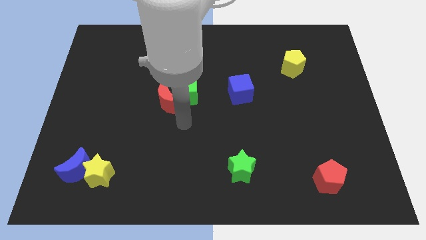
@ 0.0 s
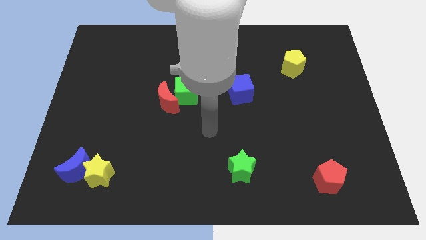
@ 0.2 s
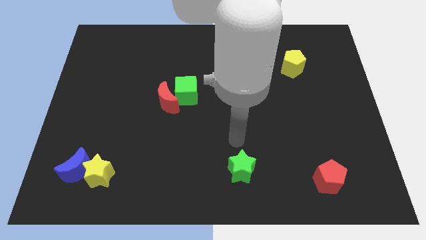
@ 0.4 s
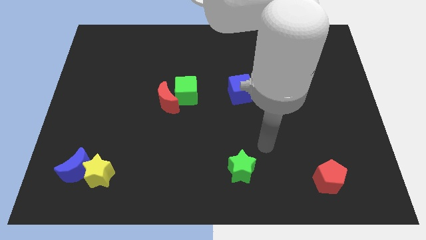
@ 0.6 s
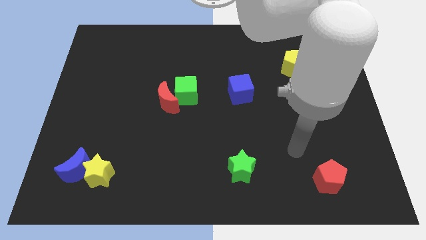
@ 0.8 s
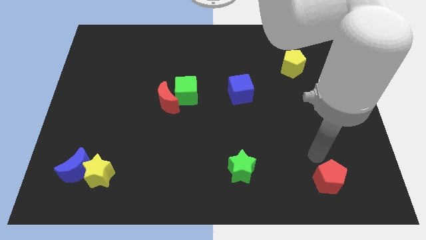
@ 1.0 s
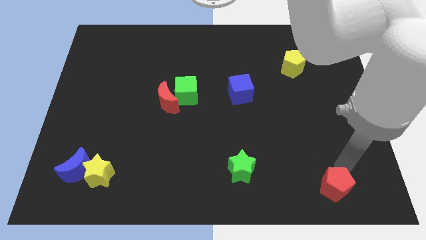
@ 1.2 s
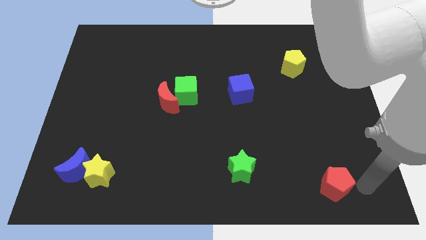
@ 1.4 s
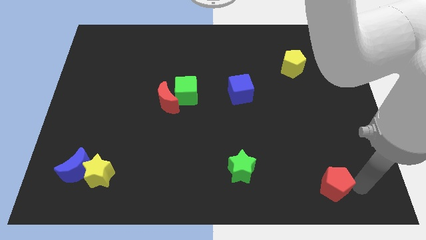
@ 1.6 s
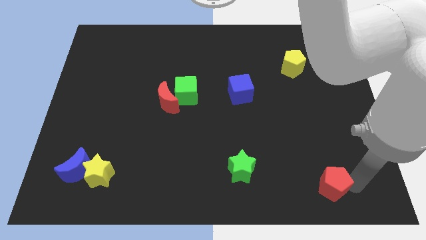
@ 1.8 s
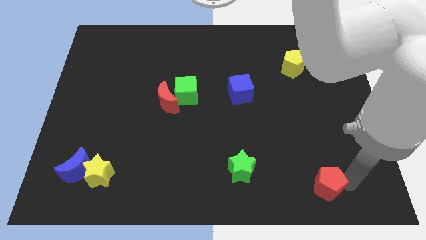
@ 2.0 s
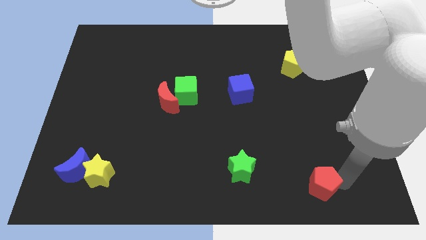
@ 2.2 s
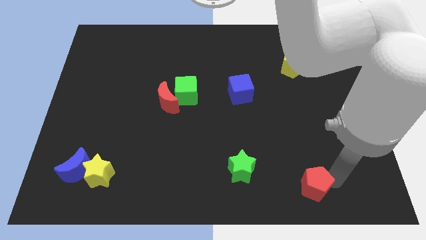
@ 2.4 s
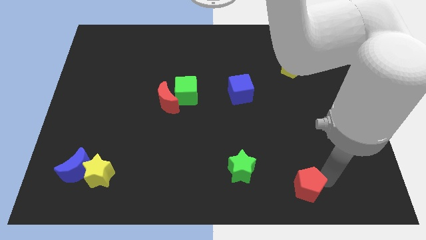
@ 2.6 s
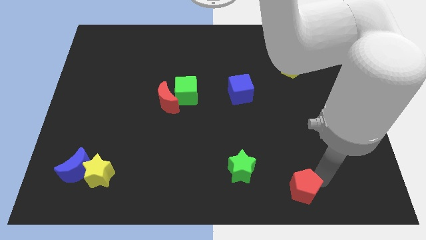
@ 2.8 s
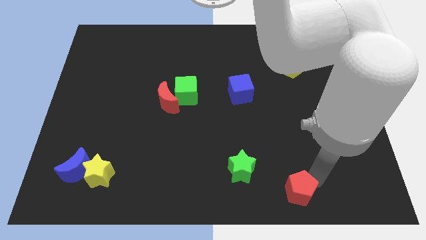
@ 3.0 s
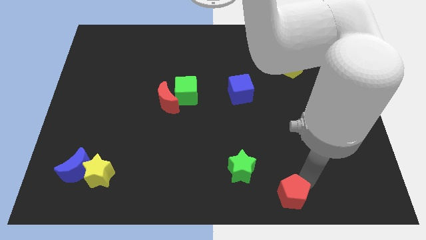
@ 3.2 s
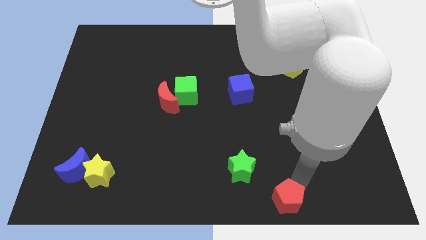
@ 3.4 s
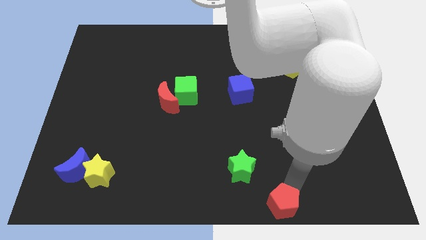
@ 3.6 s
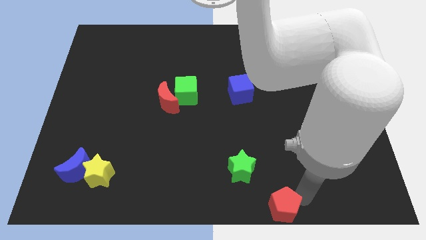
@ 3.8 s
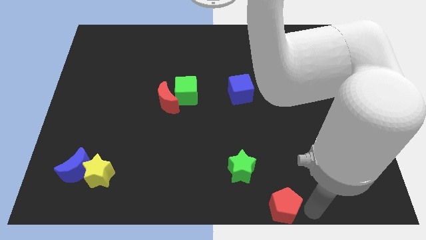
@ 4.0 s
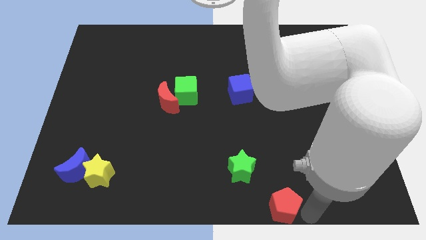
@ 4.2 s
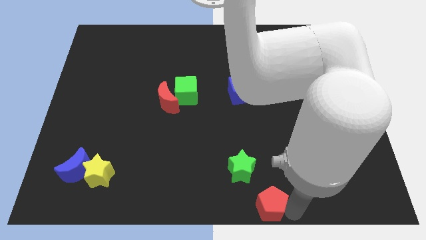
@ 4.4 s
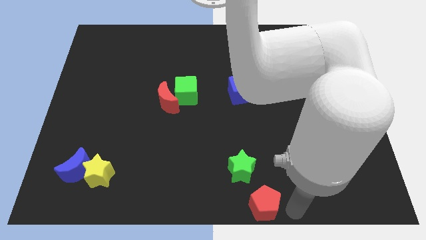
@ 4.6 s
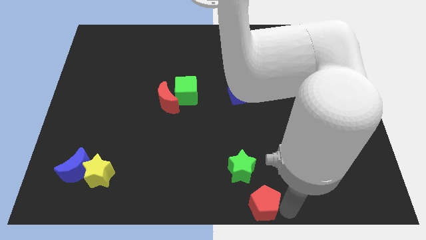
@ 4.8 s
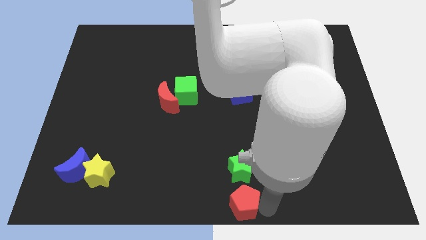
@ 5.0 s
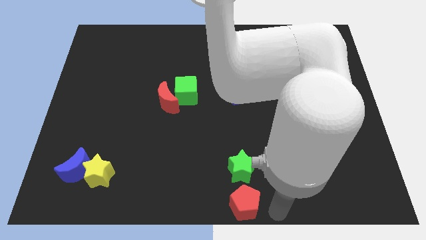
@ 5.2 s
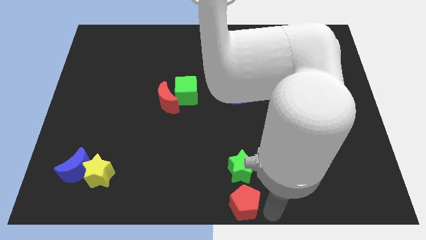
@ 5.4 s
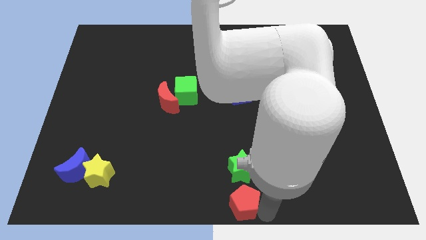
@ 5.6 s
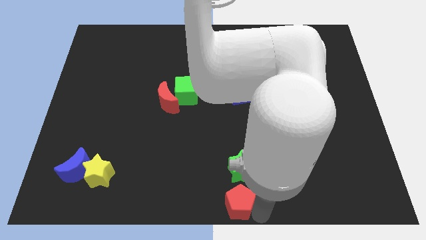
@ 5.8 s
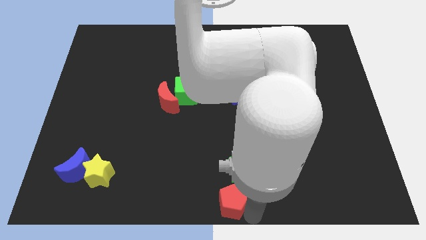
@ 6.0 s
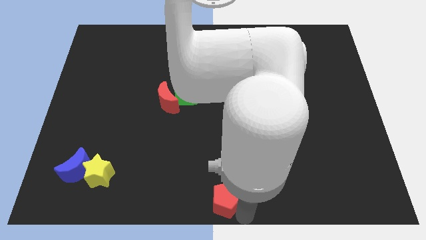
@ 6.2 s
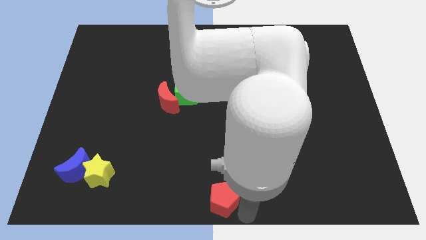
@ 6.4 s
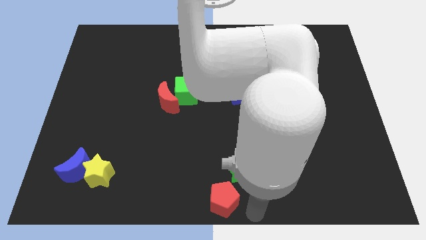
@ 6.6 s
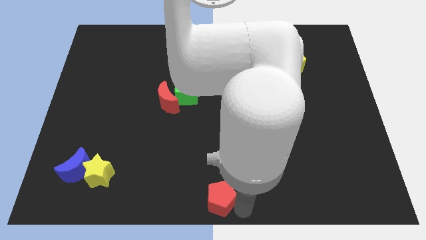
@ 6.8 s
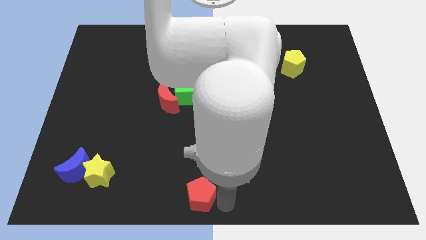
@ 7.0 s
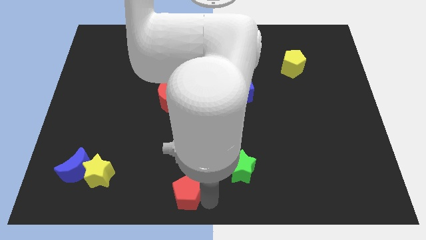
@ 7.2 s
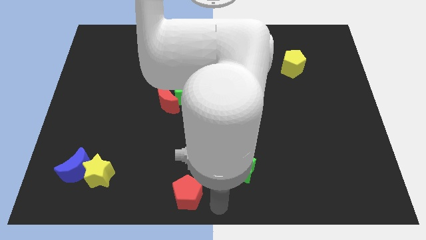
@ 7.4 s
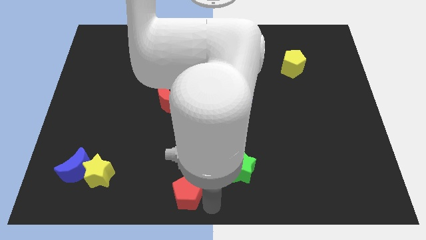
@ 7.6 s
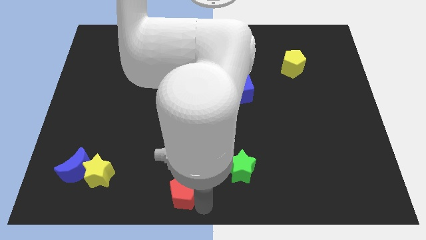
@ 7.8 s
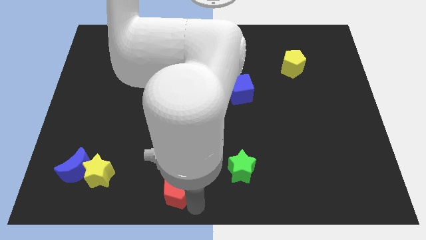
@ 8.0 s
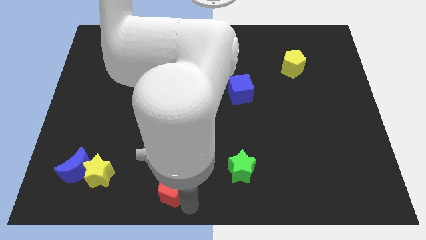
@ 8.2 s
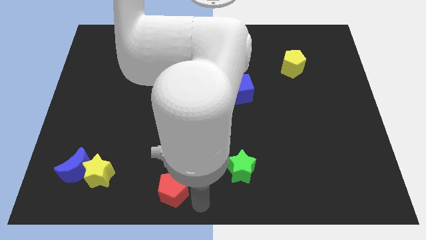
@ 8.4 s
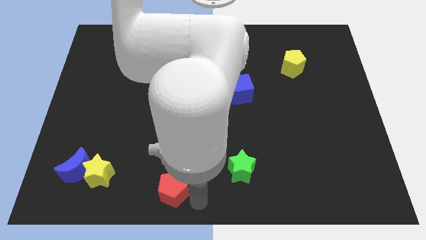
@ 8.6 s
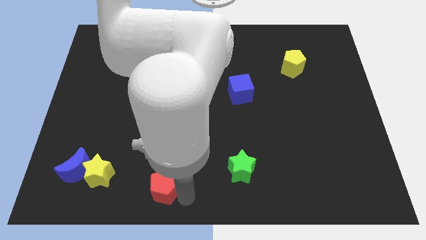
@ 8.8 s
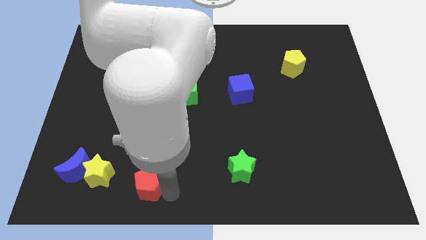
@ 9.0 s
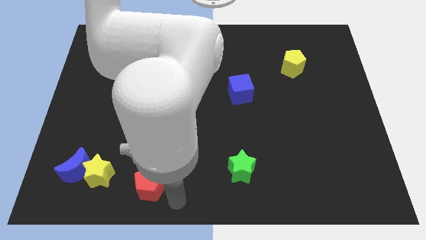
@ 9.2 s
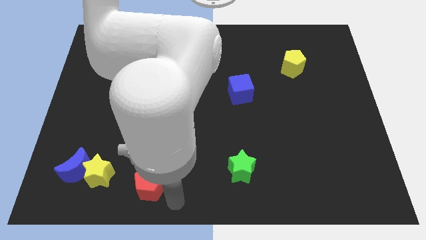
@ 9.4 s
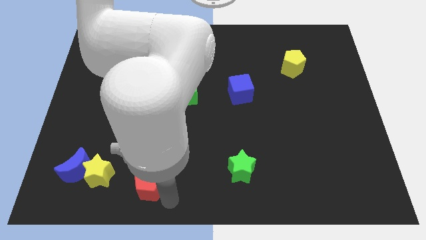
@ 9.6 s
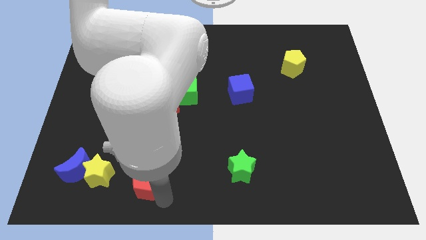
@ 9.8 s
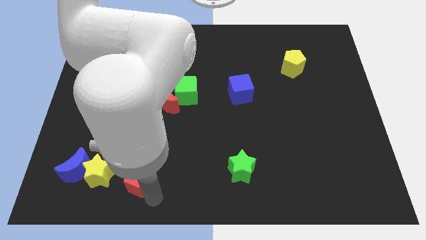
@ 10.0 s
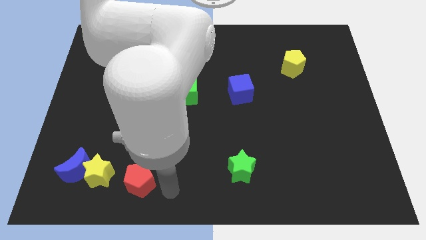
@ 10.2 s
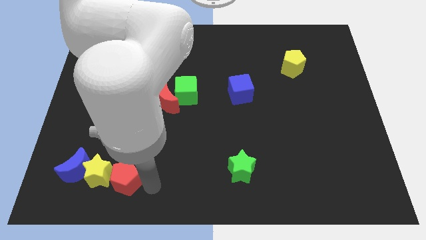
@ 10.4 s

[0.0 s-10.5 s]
push the red pentagon to the yellow star

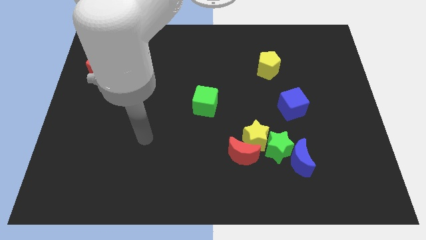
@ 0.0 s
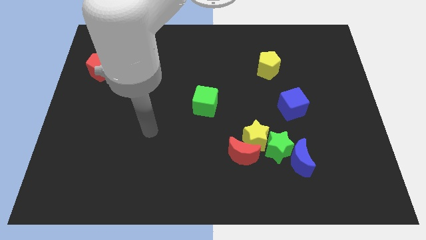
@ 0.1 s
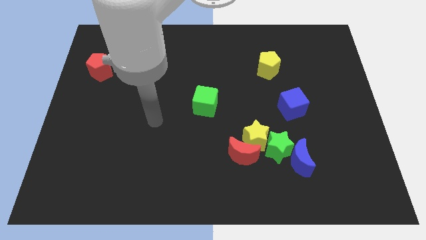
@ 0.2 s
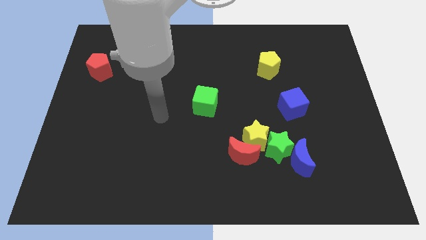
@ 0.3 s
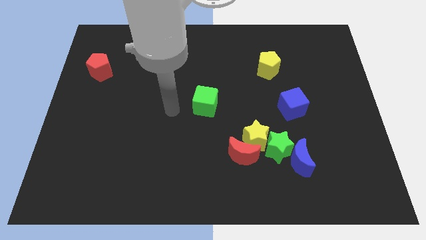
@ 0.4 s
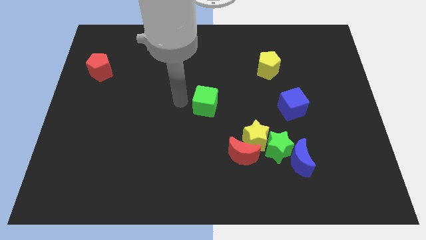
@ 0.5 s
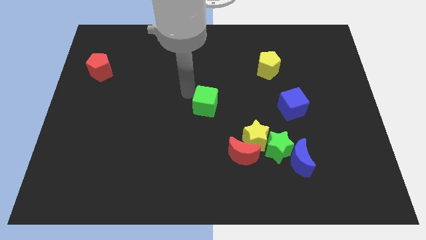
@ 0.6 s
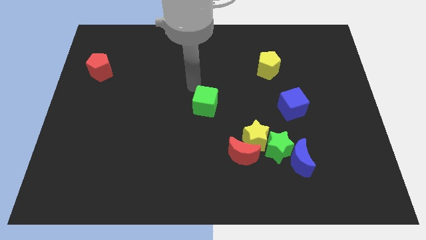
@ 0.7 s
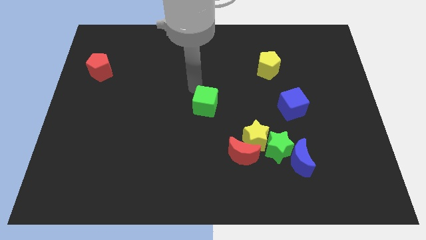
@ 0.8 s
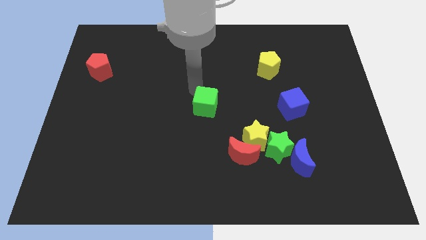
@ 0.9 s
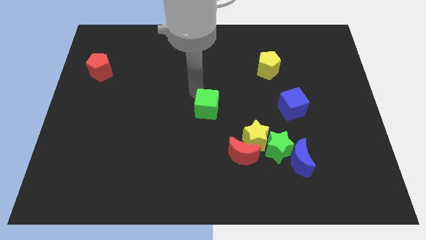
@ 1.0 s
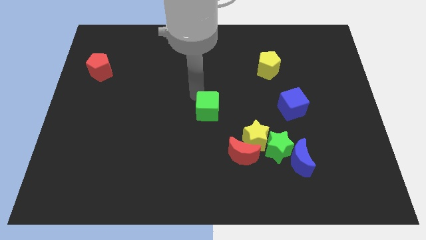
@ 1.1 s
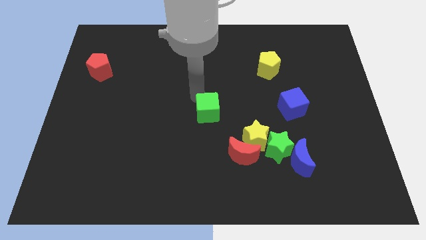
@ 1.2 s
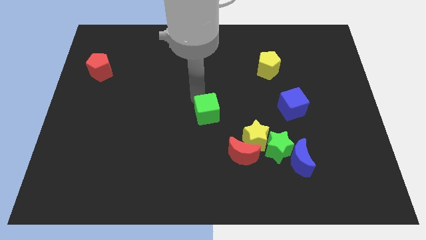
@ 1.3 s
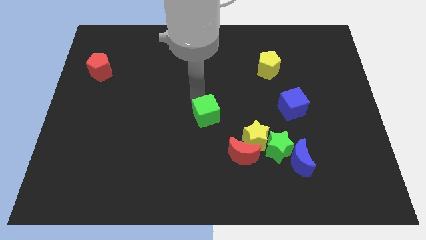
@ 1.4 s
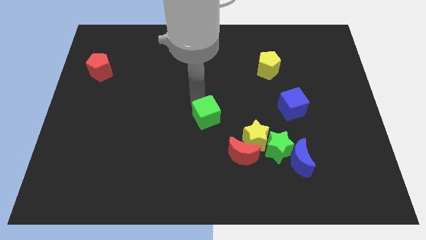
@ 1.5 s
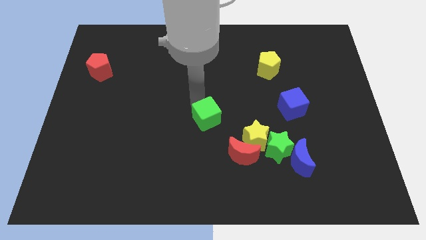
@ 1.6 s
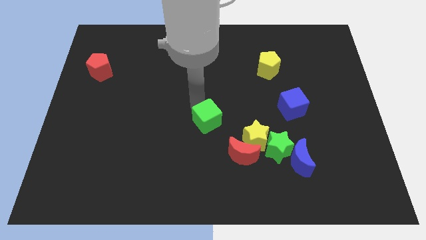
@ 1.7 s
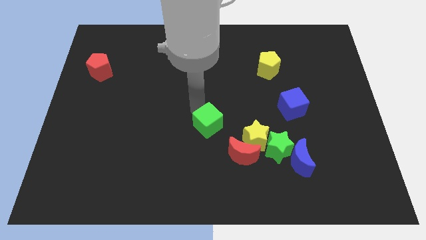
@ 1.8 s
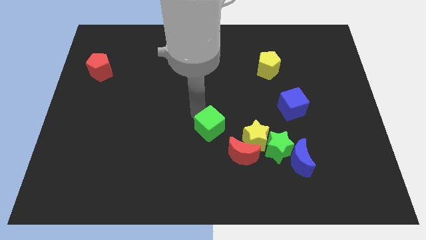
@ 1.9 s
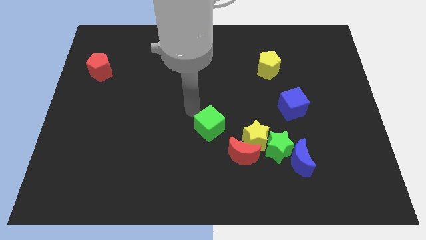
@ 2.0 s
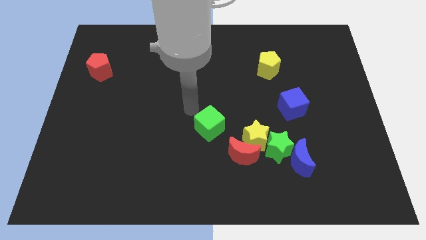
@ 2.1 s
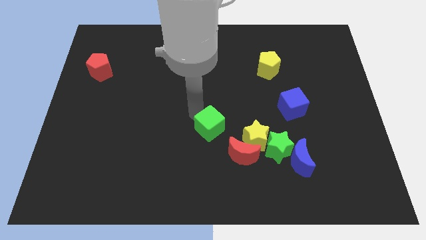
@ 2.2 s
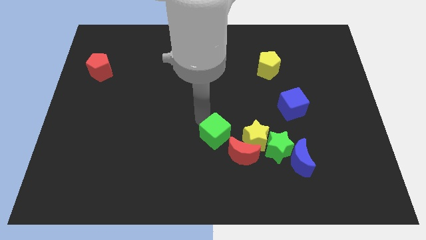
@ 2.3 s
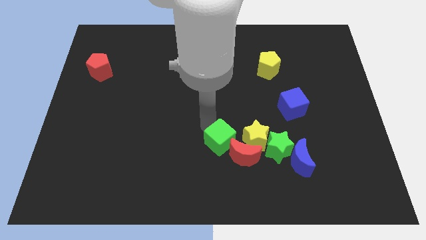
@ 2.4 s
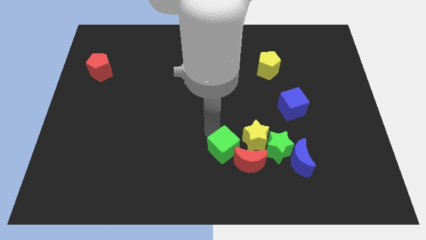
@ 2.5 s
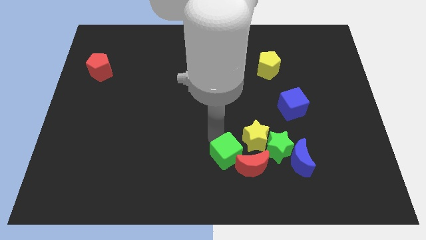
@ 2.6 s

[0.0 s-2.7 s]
move the green cube next to the red moon
